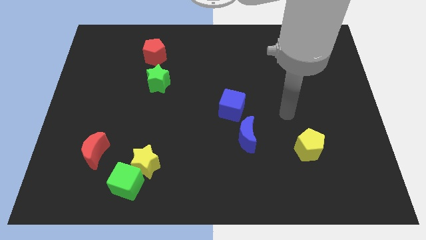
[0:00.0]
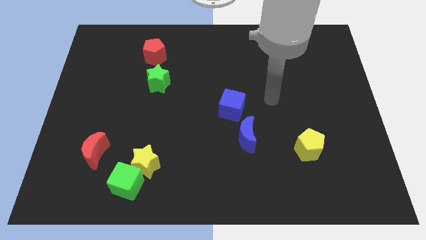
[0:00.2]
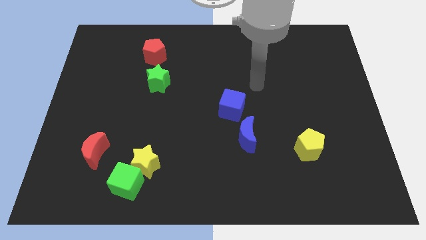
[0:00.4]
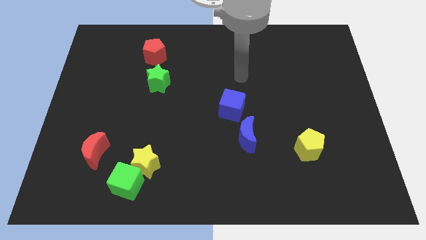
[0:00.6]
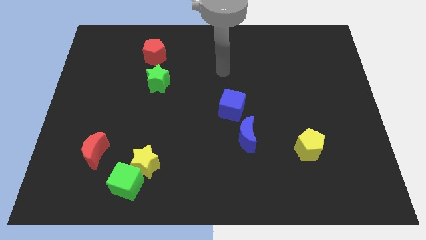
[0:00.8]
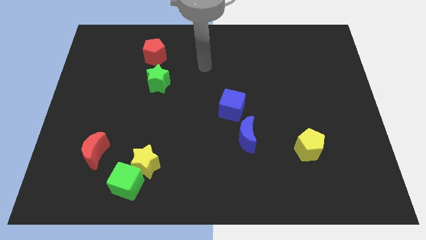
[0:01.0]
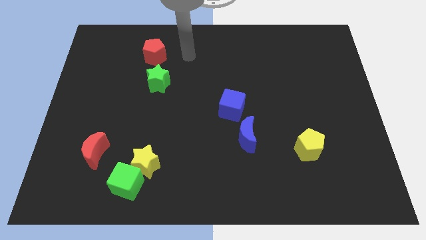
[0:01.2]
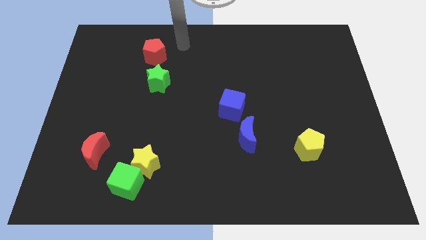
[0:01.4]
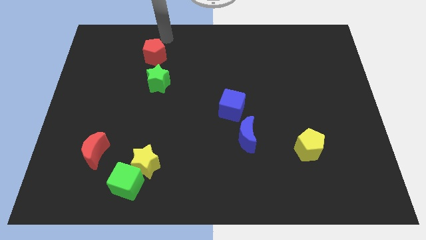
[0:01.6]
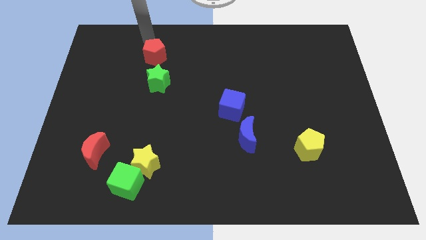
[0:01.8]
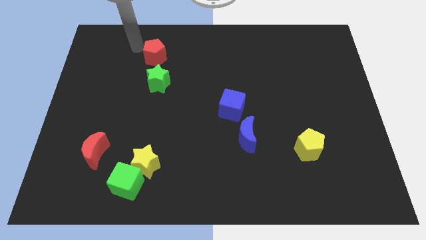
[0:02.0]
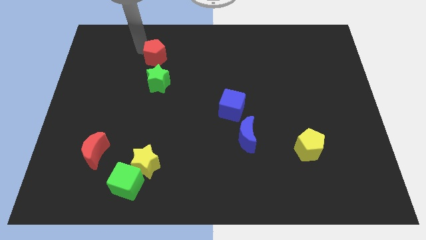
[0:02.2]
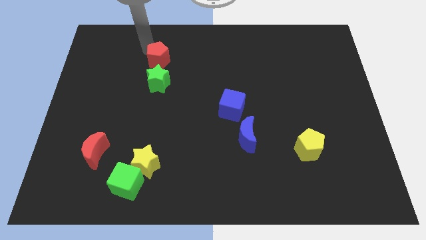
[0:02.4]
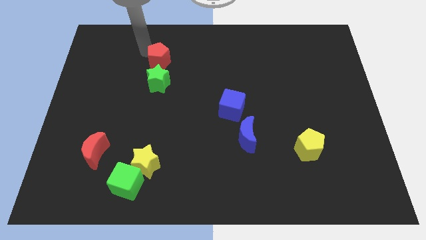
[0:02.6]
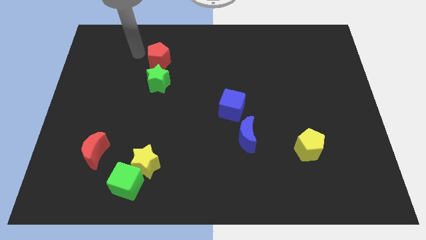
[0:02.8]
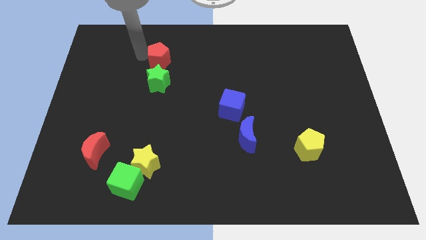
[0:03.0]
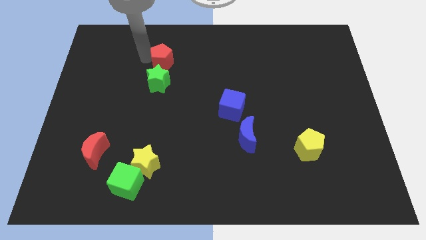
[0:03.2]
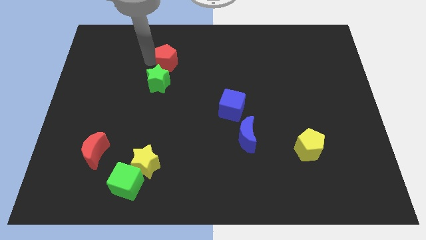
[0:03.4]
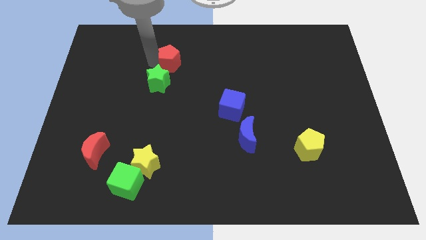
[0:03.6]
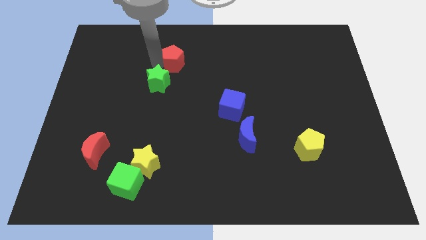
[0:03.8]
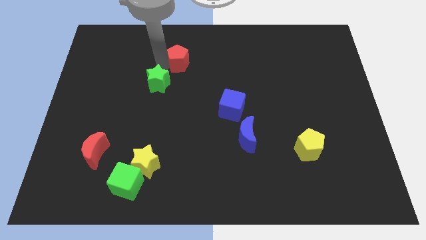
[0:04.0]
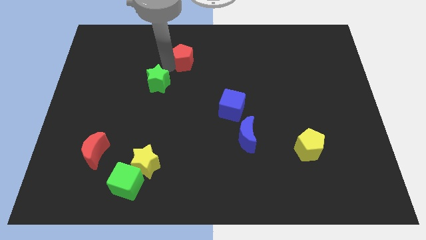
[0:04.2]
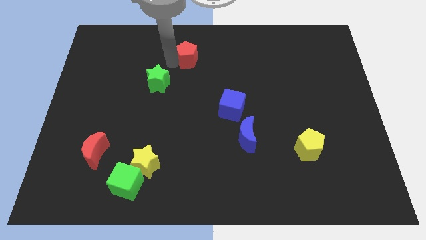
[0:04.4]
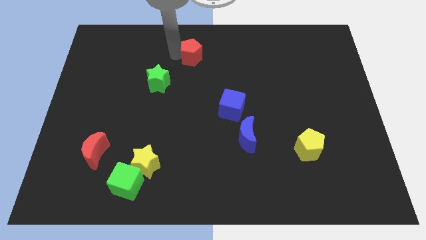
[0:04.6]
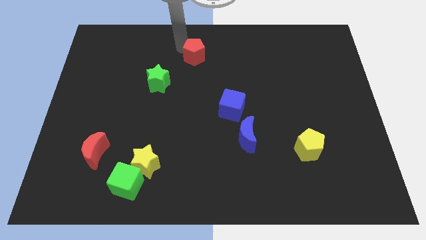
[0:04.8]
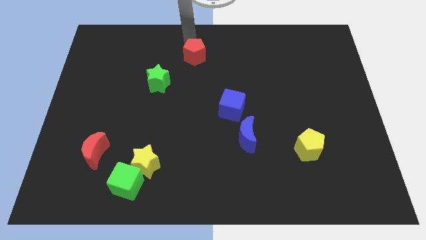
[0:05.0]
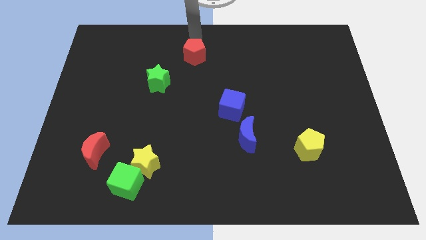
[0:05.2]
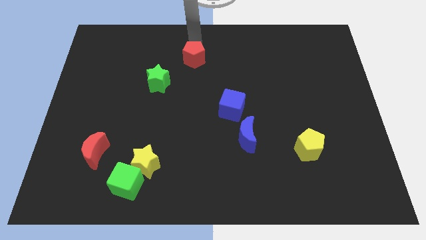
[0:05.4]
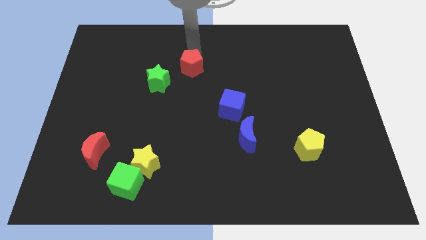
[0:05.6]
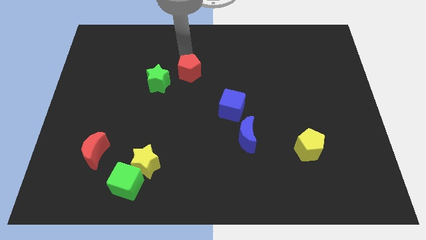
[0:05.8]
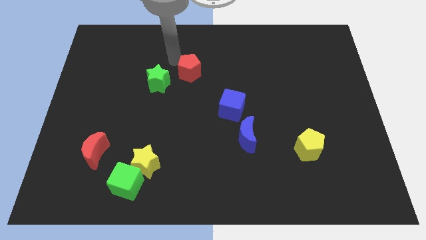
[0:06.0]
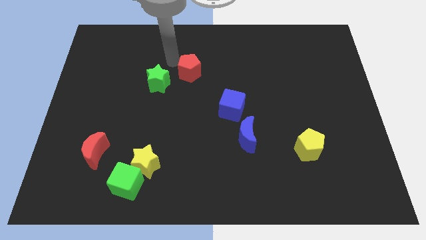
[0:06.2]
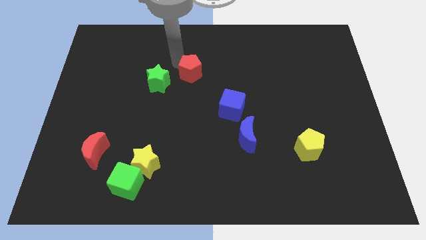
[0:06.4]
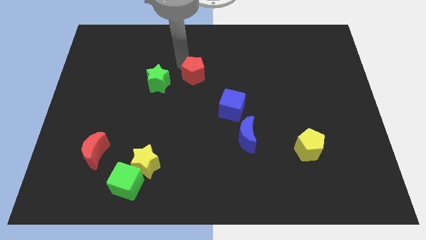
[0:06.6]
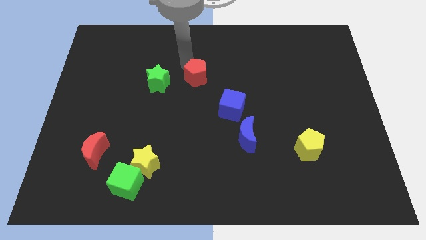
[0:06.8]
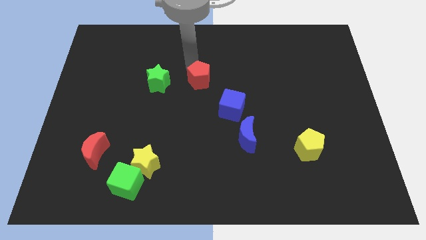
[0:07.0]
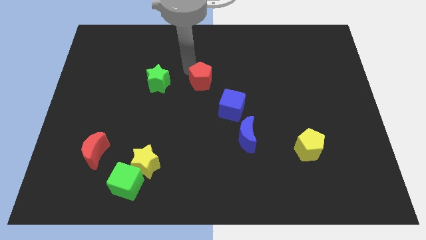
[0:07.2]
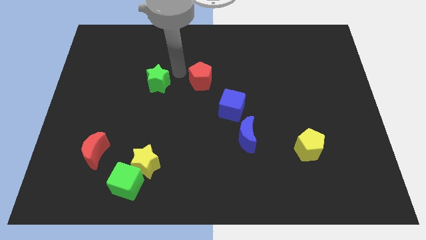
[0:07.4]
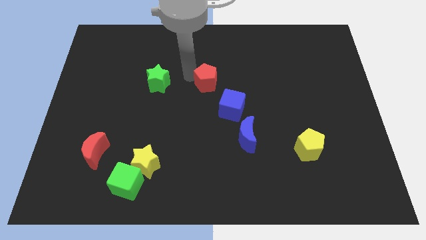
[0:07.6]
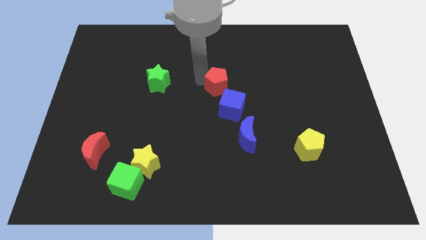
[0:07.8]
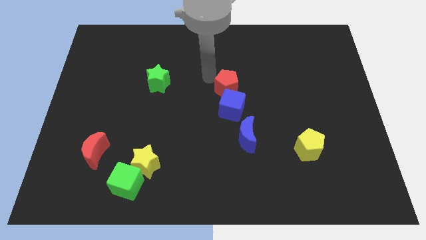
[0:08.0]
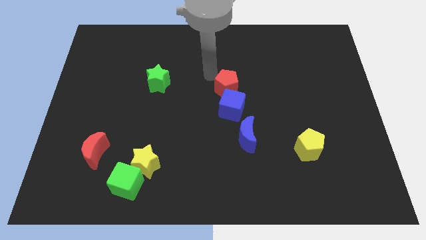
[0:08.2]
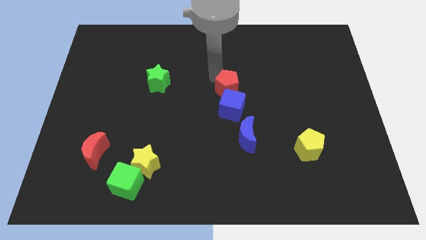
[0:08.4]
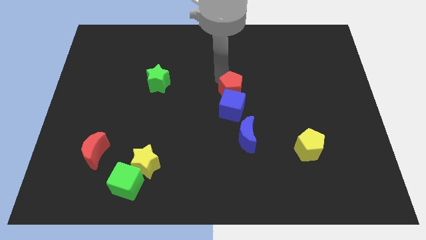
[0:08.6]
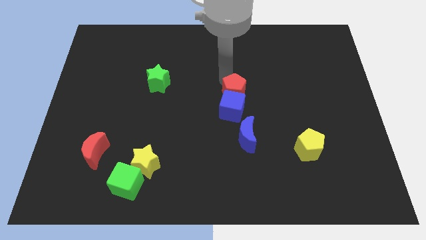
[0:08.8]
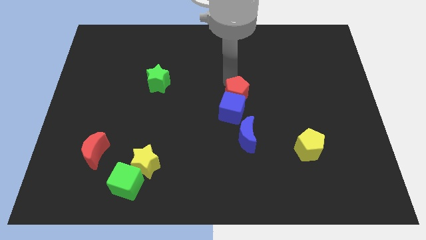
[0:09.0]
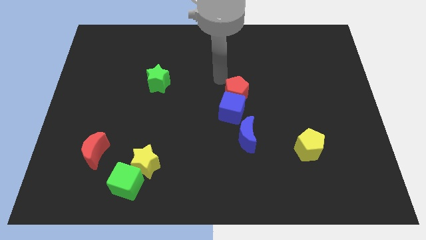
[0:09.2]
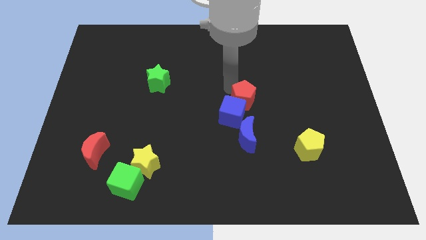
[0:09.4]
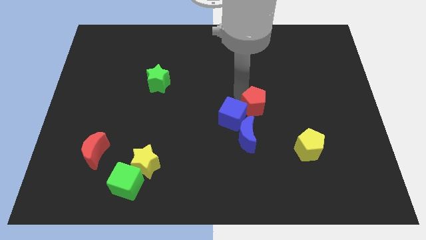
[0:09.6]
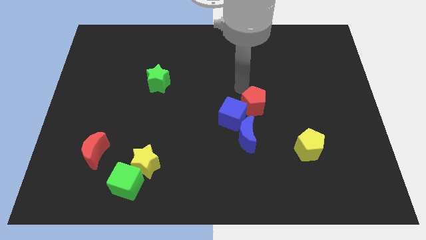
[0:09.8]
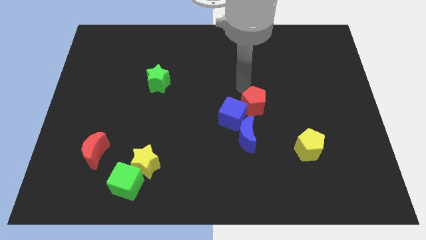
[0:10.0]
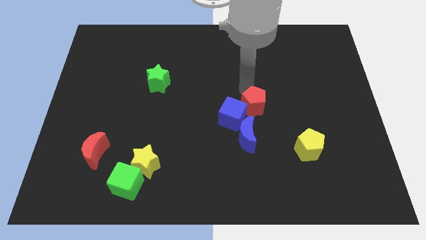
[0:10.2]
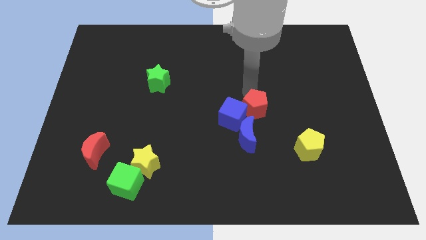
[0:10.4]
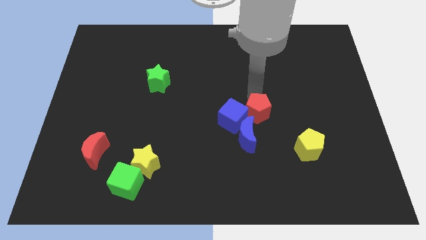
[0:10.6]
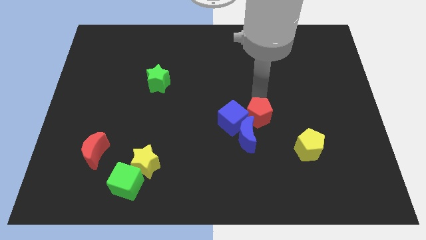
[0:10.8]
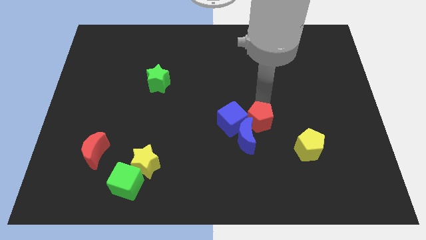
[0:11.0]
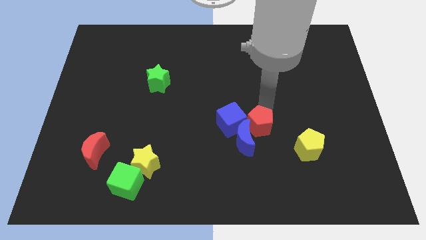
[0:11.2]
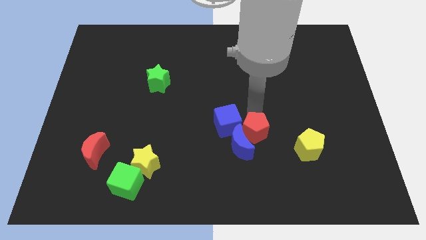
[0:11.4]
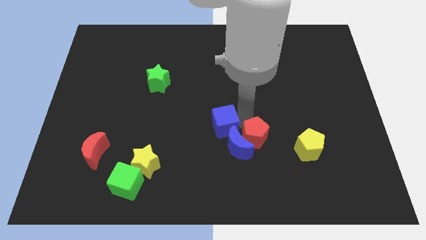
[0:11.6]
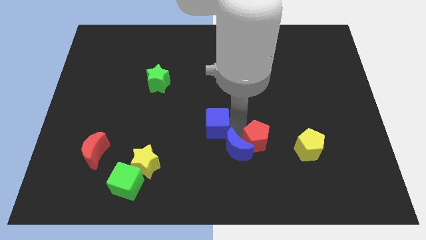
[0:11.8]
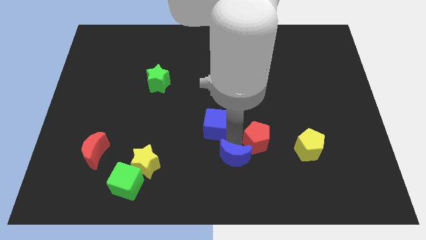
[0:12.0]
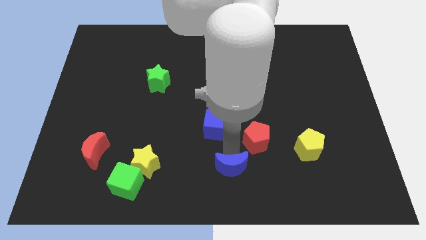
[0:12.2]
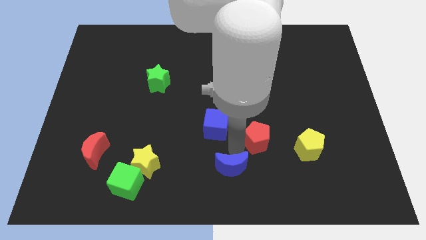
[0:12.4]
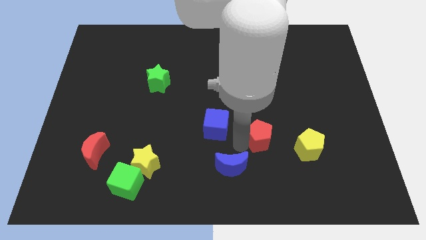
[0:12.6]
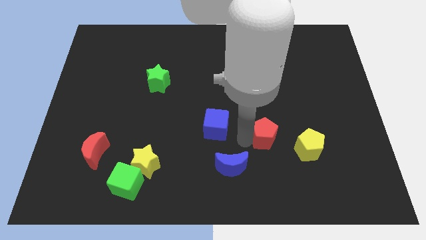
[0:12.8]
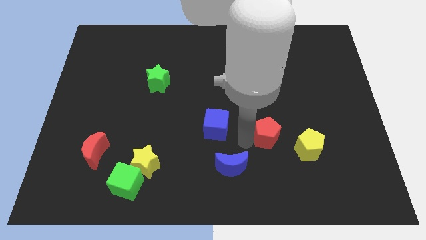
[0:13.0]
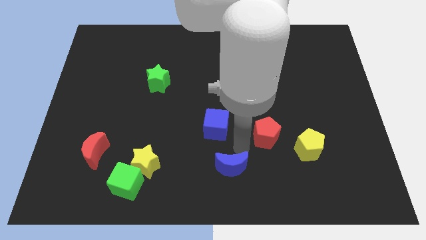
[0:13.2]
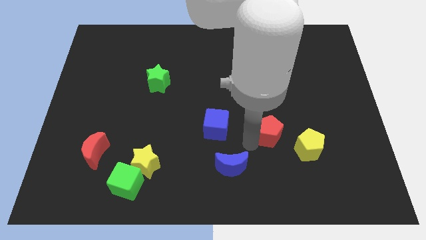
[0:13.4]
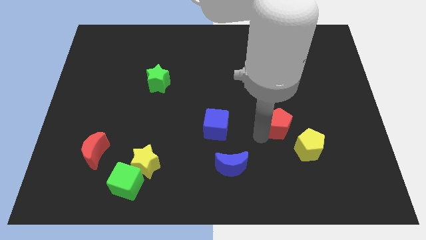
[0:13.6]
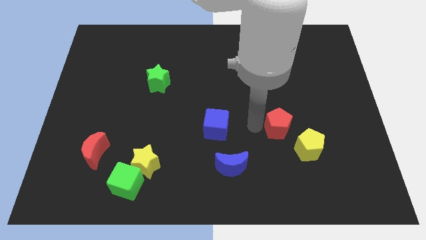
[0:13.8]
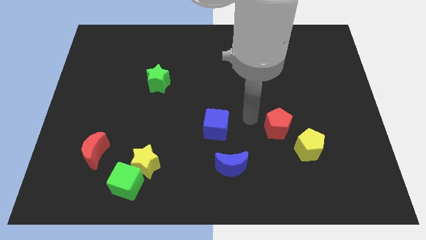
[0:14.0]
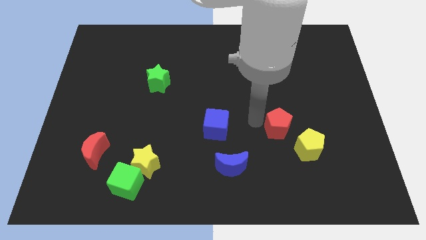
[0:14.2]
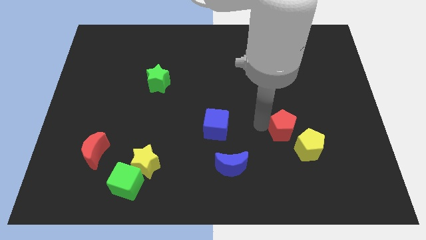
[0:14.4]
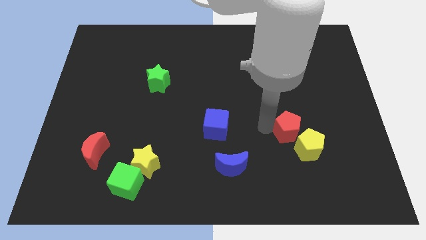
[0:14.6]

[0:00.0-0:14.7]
push the red pentagon close to the yellow pentagon

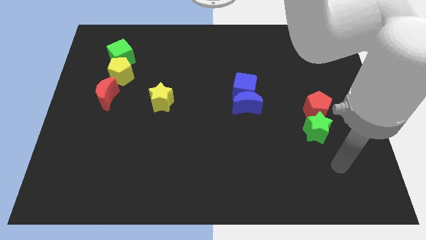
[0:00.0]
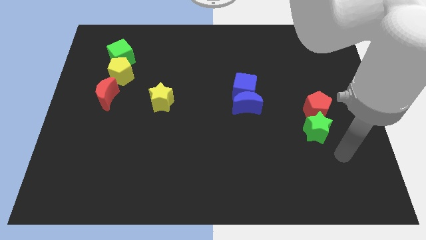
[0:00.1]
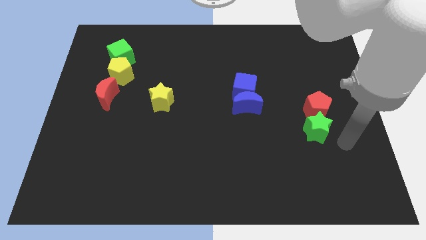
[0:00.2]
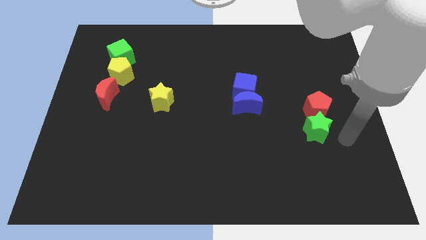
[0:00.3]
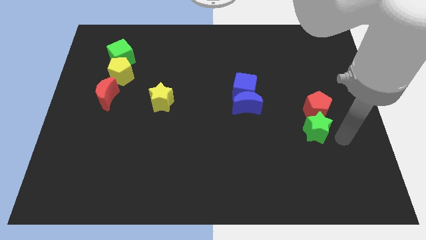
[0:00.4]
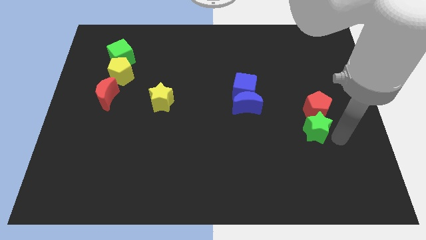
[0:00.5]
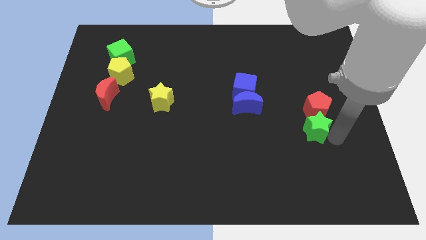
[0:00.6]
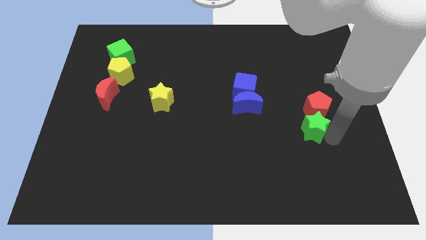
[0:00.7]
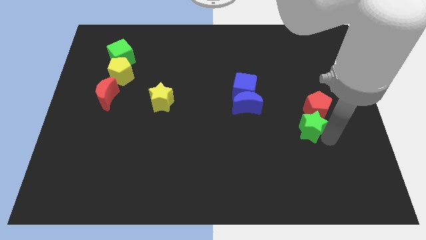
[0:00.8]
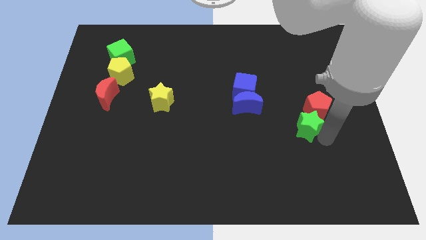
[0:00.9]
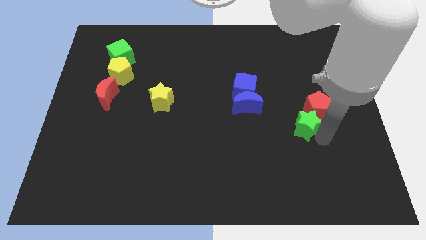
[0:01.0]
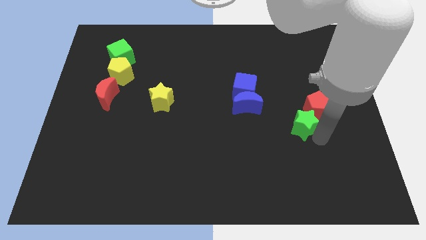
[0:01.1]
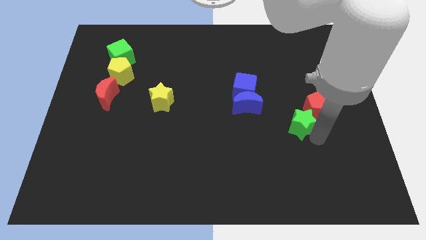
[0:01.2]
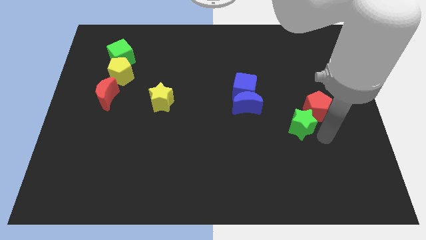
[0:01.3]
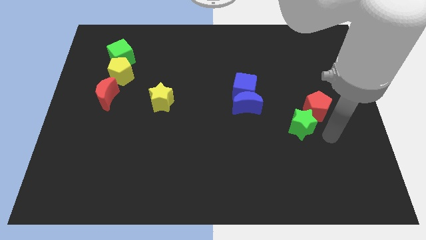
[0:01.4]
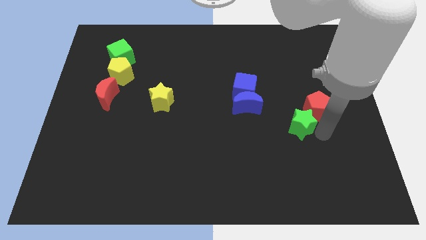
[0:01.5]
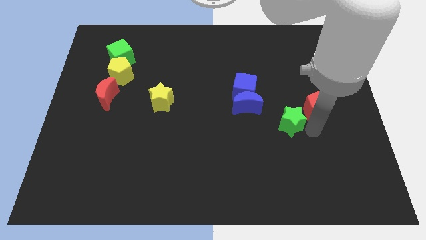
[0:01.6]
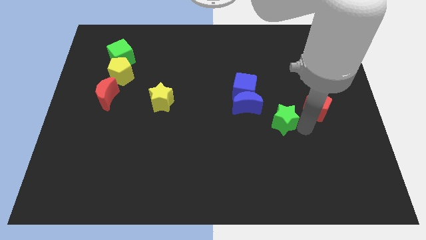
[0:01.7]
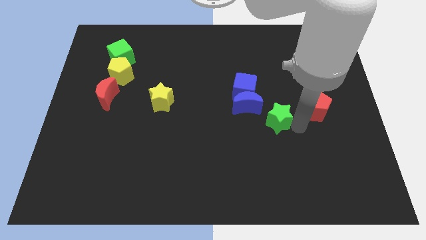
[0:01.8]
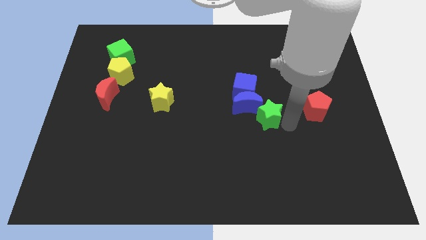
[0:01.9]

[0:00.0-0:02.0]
put the green star close to the blue moon
